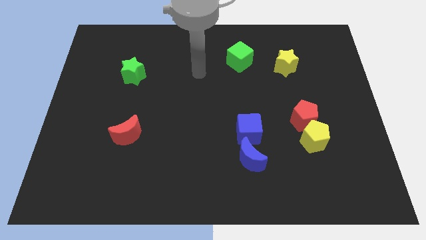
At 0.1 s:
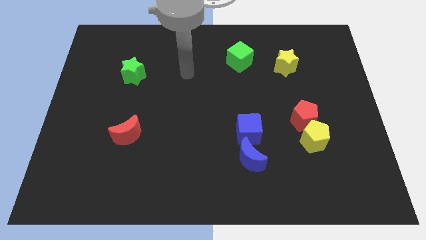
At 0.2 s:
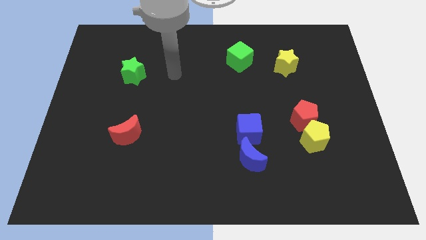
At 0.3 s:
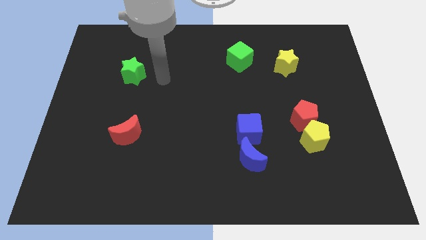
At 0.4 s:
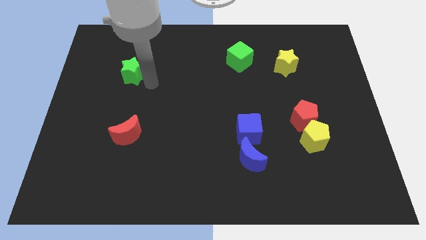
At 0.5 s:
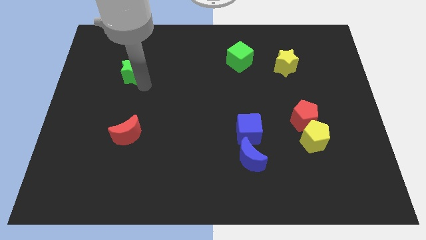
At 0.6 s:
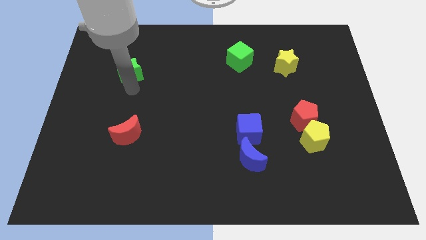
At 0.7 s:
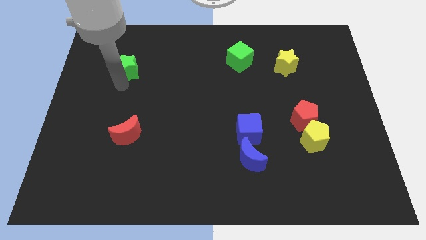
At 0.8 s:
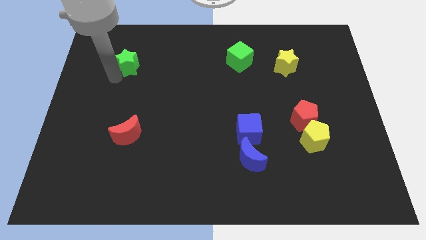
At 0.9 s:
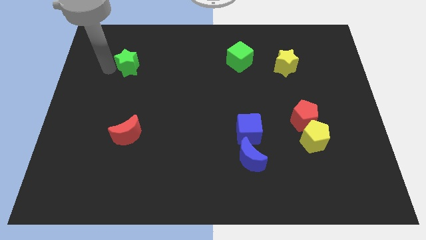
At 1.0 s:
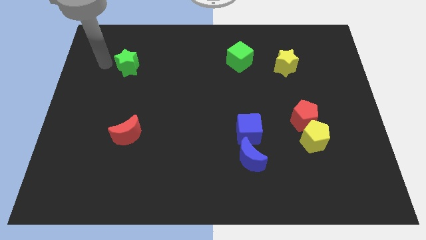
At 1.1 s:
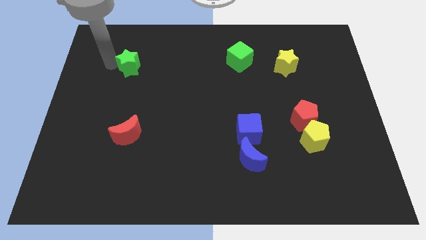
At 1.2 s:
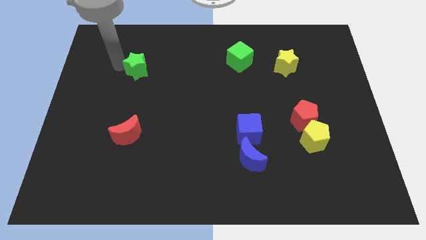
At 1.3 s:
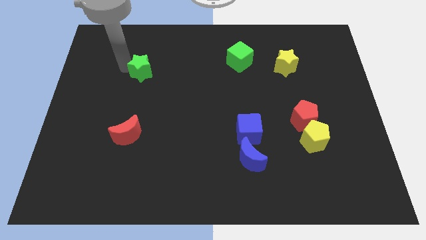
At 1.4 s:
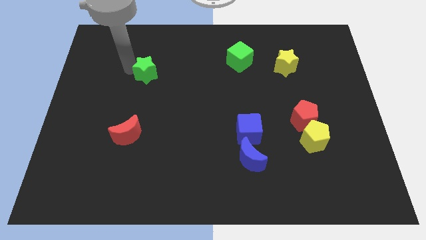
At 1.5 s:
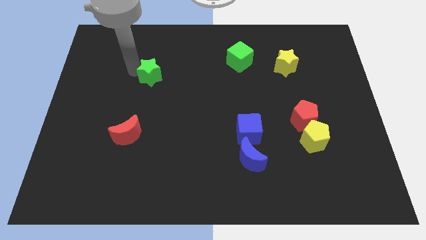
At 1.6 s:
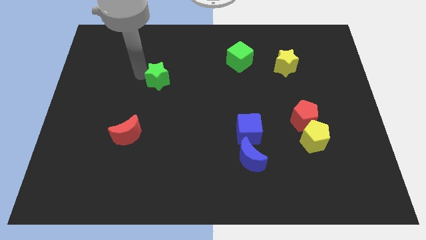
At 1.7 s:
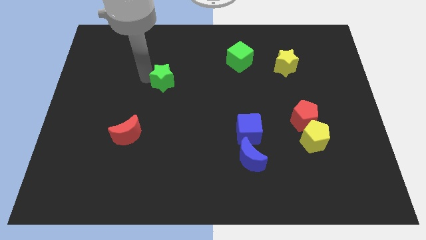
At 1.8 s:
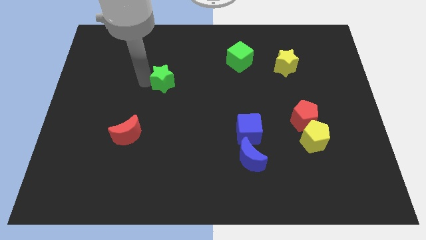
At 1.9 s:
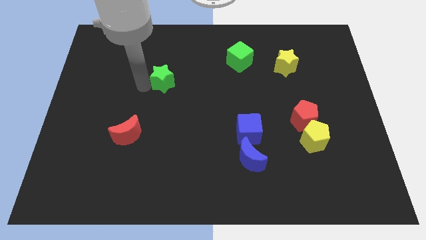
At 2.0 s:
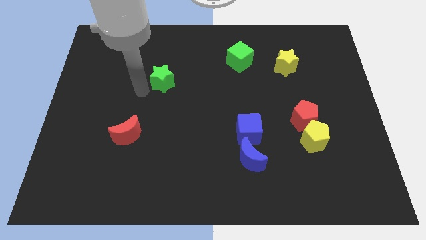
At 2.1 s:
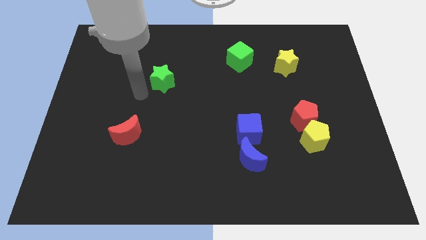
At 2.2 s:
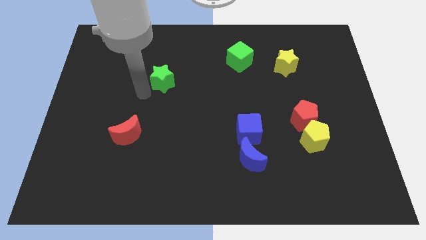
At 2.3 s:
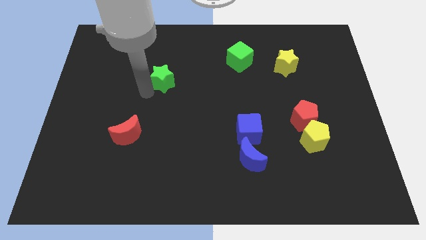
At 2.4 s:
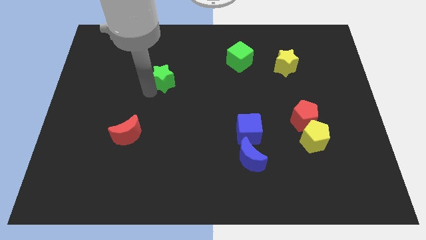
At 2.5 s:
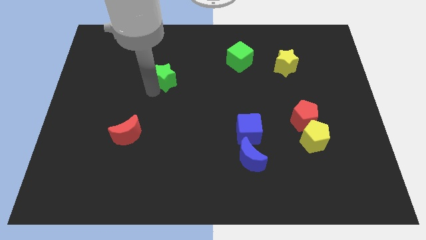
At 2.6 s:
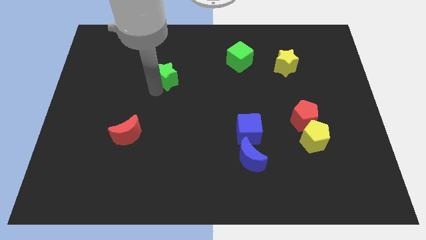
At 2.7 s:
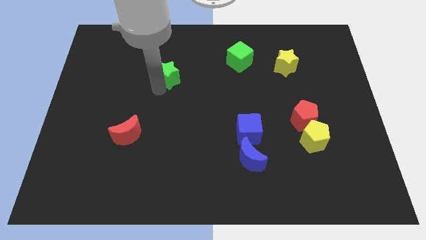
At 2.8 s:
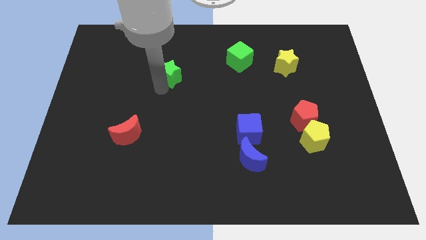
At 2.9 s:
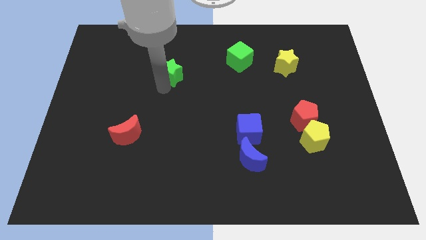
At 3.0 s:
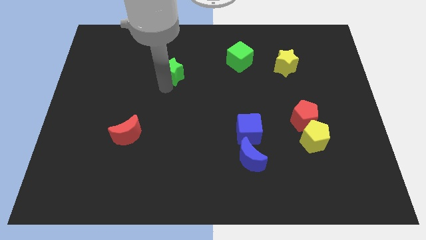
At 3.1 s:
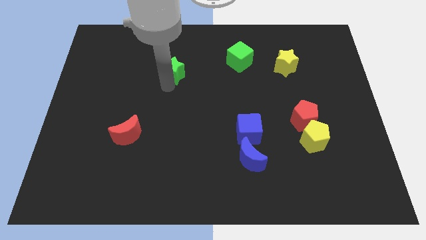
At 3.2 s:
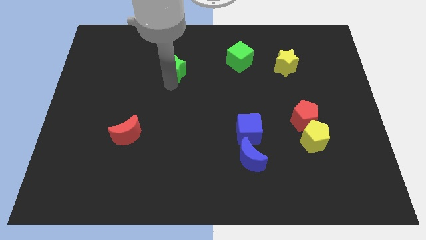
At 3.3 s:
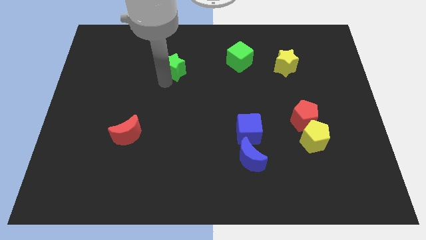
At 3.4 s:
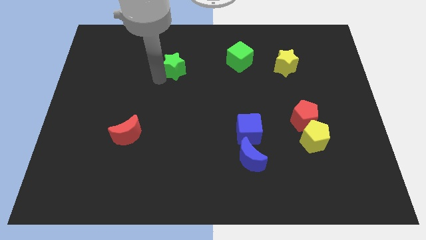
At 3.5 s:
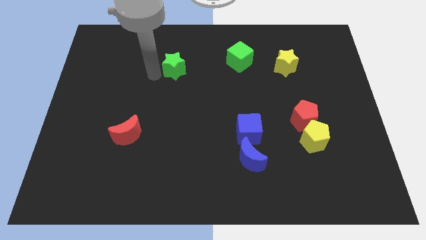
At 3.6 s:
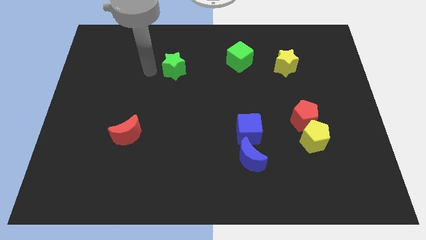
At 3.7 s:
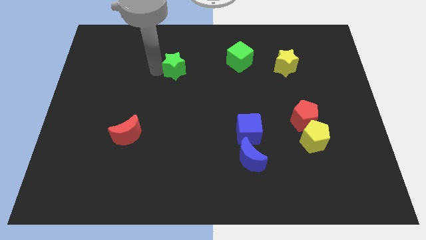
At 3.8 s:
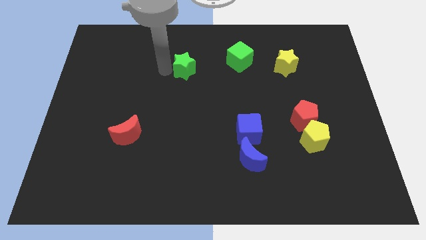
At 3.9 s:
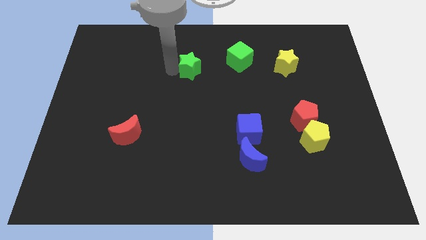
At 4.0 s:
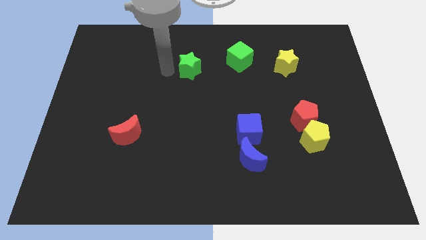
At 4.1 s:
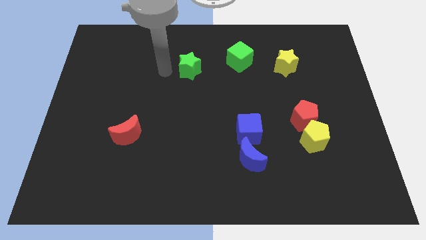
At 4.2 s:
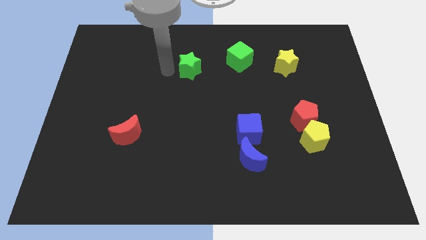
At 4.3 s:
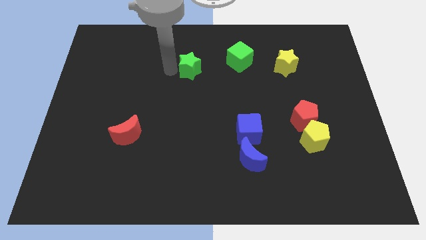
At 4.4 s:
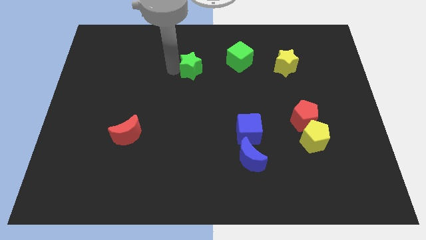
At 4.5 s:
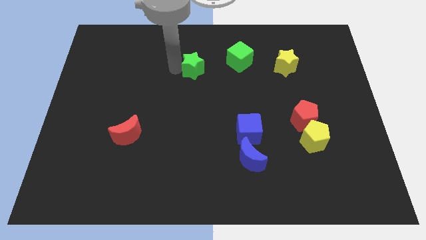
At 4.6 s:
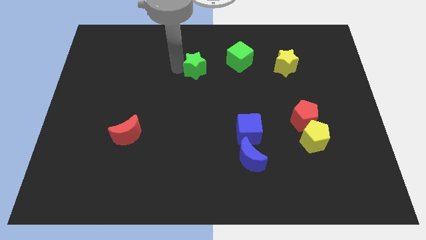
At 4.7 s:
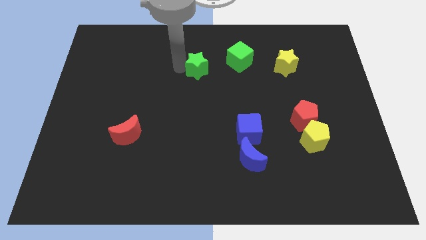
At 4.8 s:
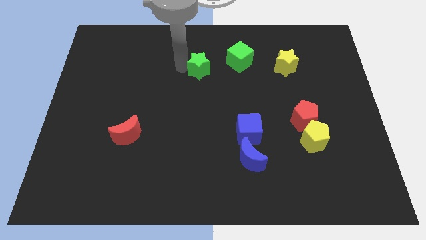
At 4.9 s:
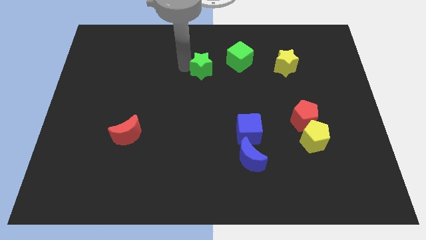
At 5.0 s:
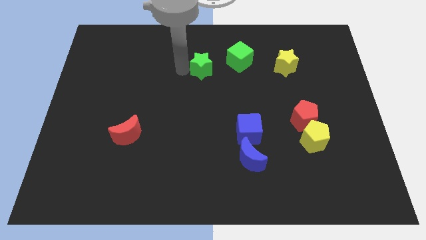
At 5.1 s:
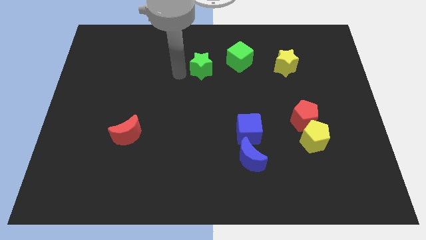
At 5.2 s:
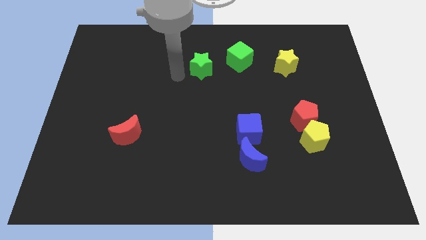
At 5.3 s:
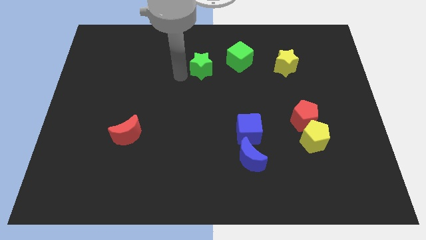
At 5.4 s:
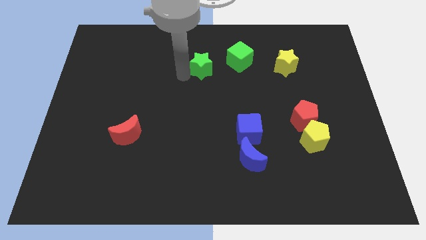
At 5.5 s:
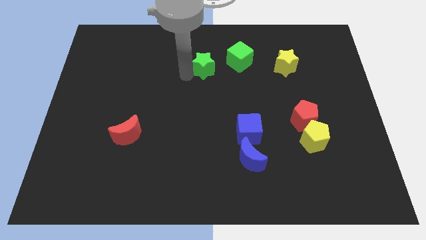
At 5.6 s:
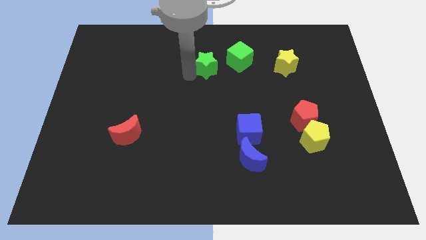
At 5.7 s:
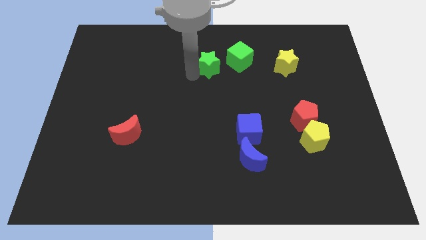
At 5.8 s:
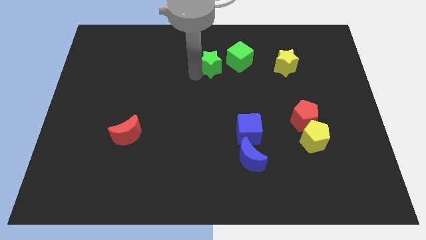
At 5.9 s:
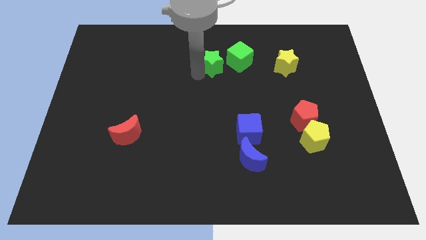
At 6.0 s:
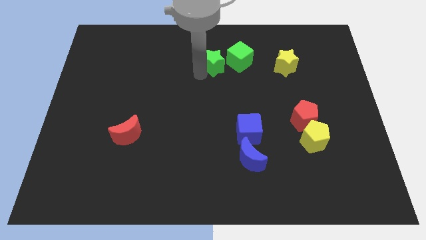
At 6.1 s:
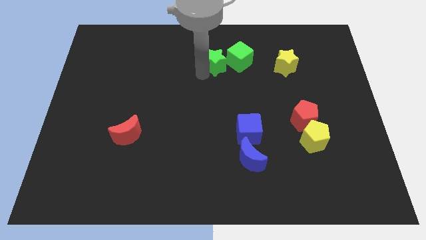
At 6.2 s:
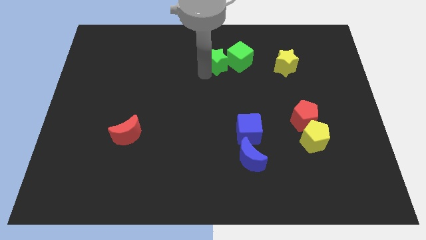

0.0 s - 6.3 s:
slide the green star to the green cube

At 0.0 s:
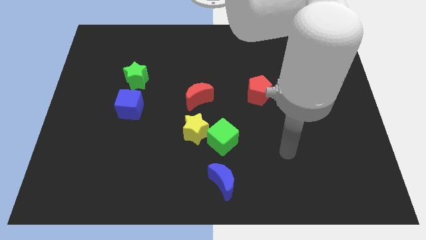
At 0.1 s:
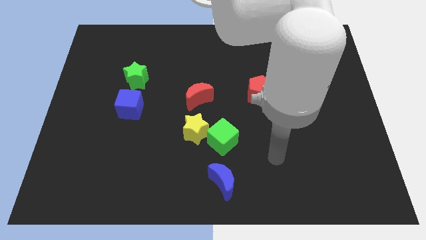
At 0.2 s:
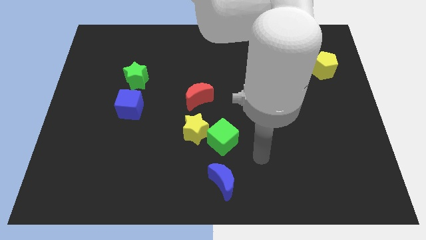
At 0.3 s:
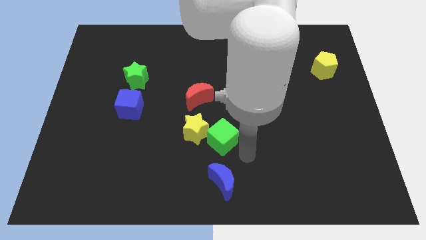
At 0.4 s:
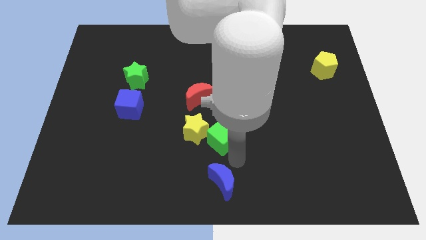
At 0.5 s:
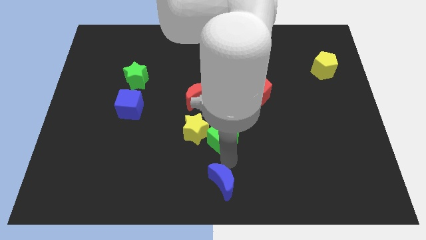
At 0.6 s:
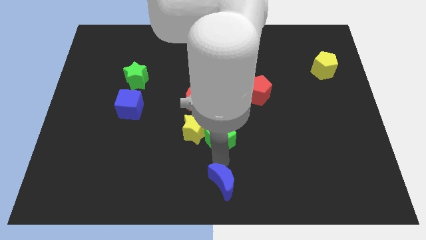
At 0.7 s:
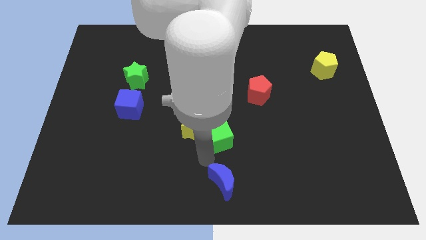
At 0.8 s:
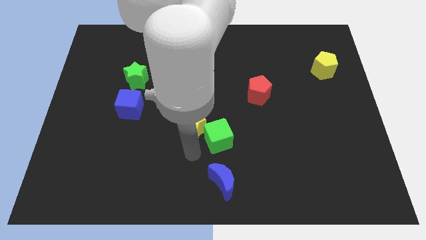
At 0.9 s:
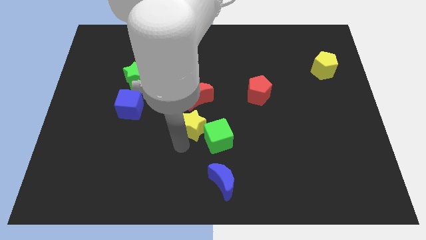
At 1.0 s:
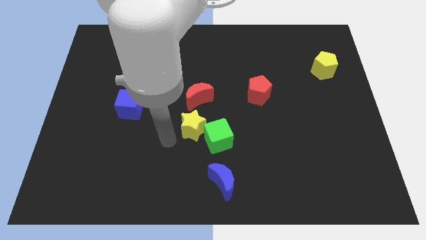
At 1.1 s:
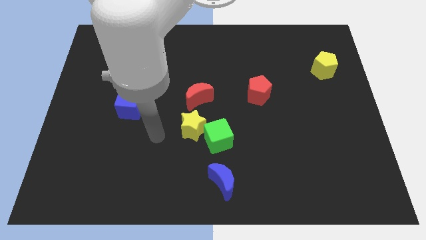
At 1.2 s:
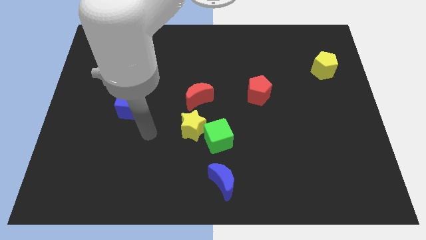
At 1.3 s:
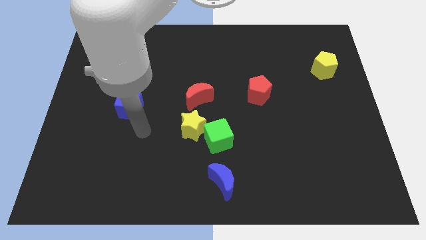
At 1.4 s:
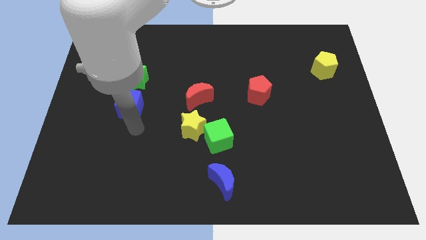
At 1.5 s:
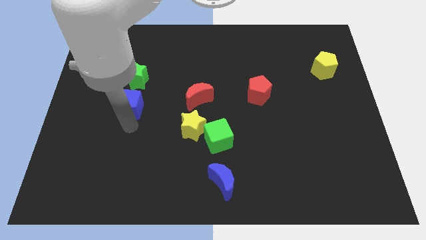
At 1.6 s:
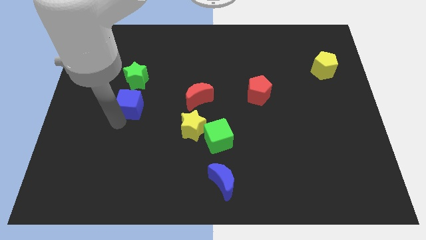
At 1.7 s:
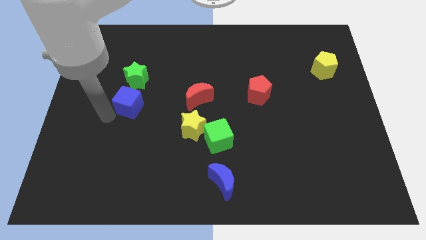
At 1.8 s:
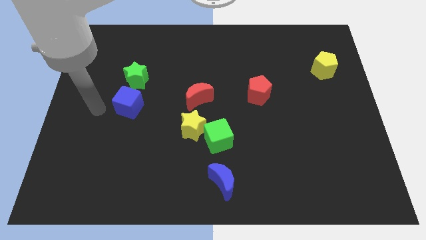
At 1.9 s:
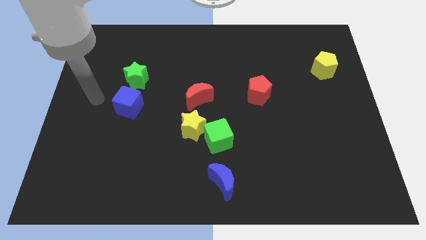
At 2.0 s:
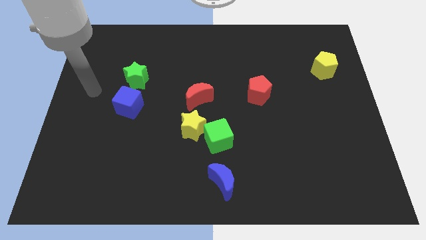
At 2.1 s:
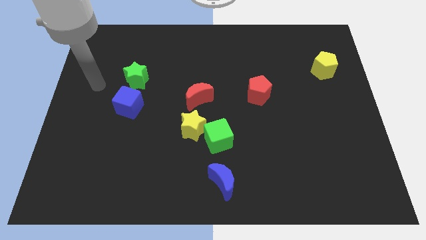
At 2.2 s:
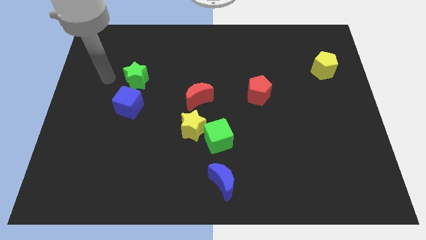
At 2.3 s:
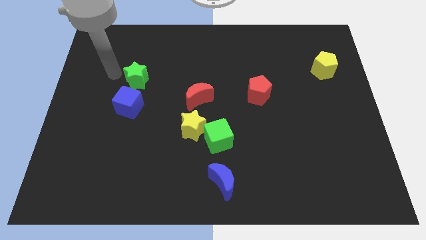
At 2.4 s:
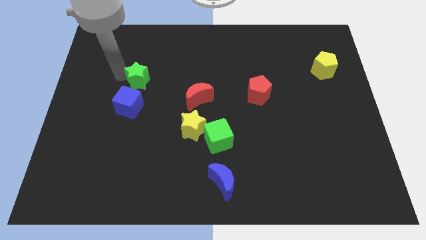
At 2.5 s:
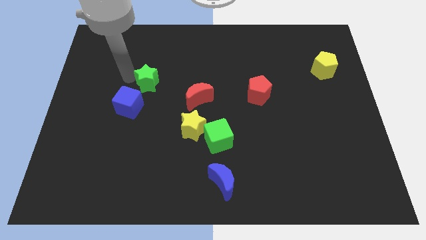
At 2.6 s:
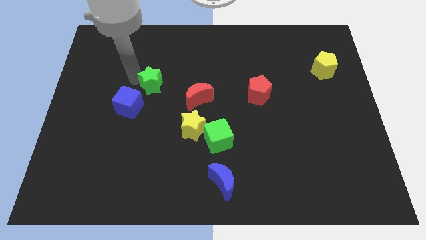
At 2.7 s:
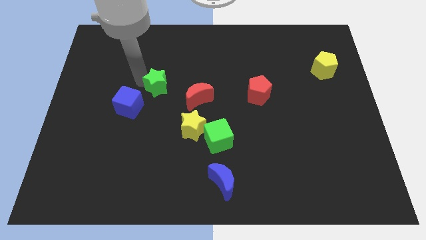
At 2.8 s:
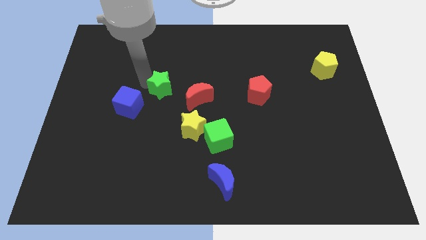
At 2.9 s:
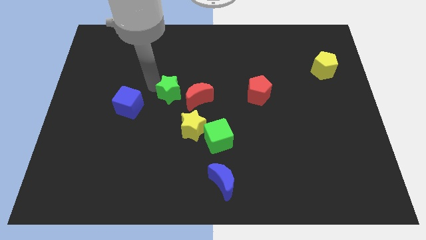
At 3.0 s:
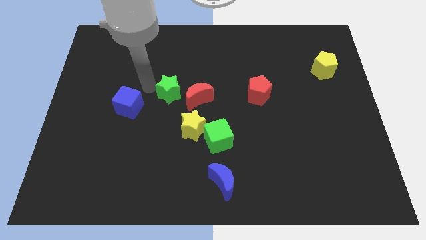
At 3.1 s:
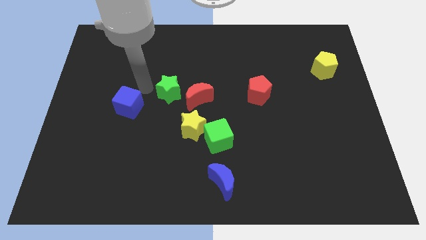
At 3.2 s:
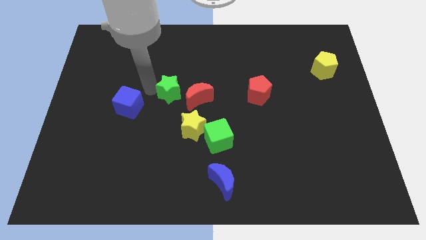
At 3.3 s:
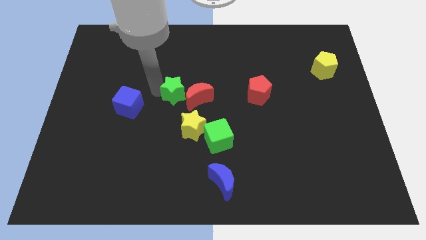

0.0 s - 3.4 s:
put the green star close to the red moon
